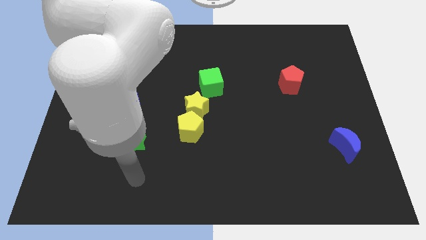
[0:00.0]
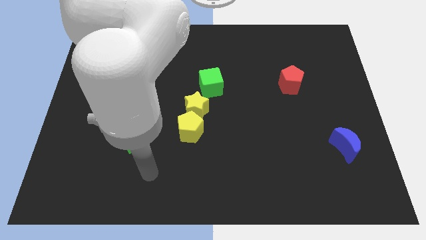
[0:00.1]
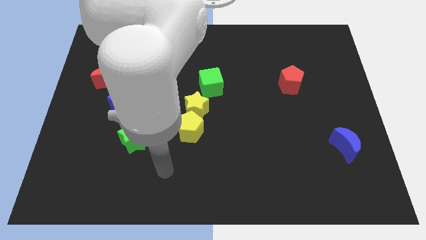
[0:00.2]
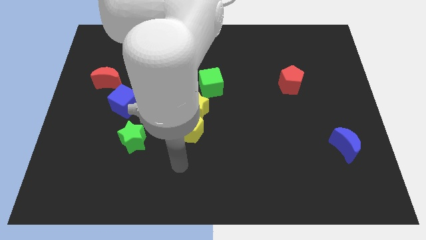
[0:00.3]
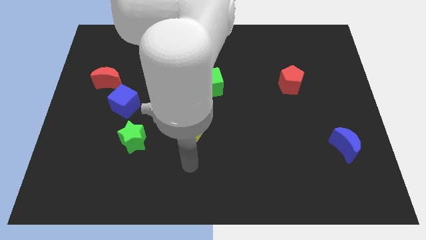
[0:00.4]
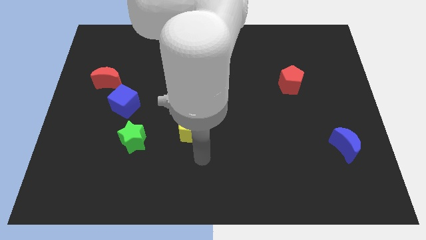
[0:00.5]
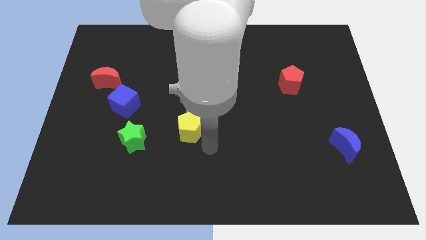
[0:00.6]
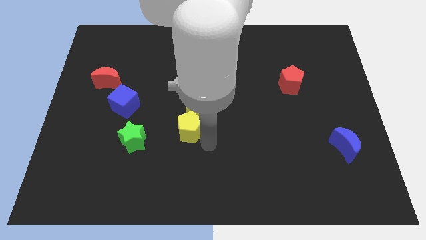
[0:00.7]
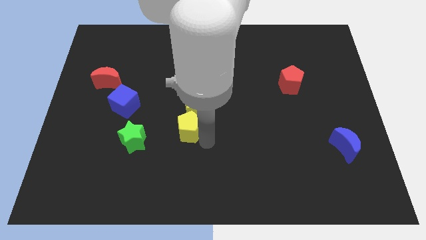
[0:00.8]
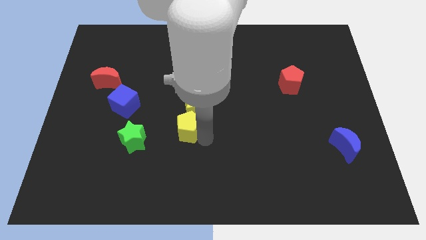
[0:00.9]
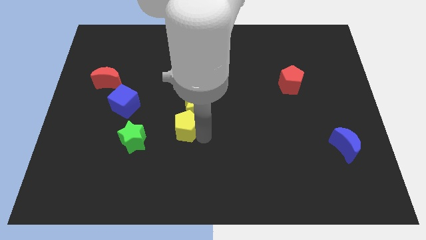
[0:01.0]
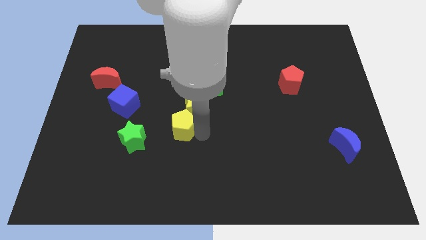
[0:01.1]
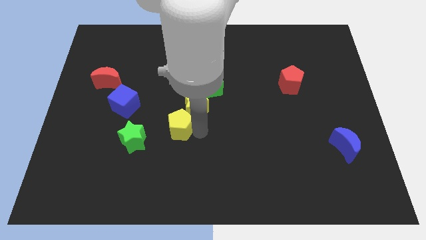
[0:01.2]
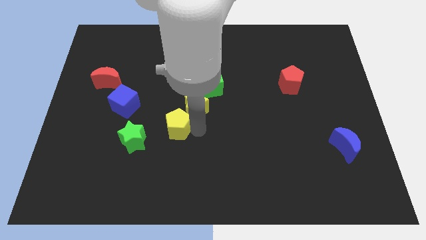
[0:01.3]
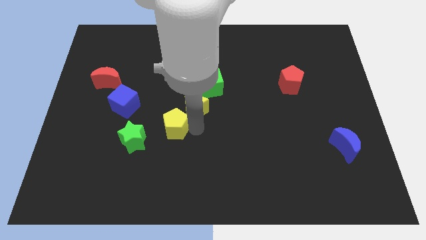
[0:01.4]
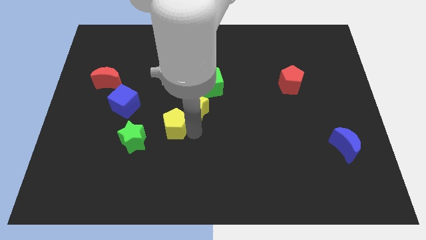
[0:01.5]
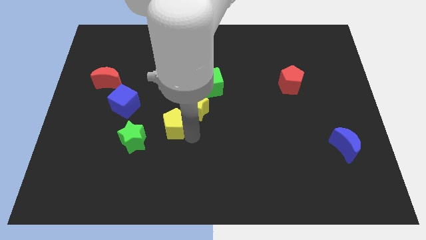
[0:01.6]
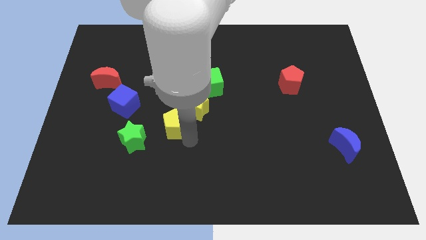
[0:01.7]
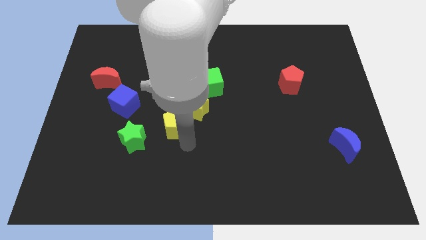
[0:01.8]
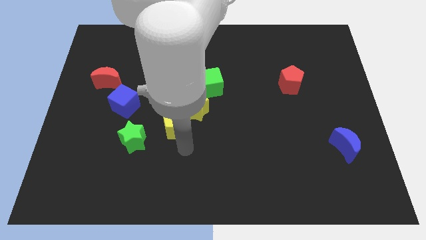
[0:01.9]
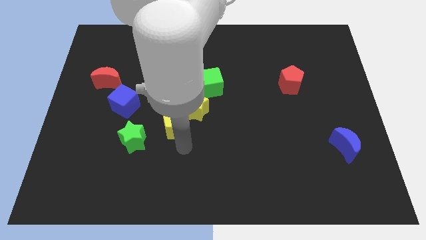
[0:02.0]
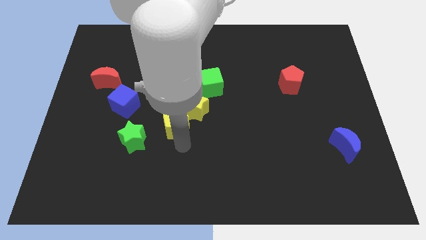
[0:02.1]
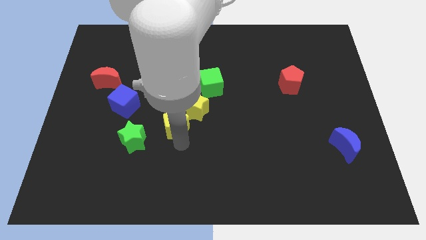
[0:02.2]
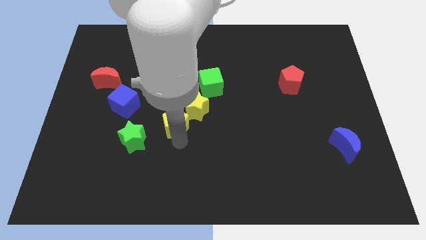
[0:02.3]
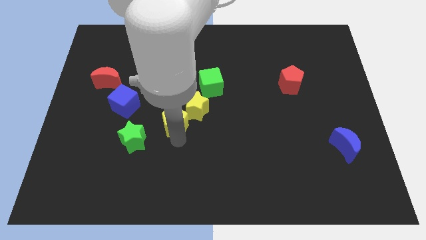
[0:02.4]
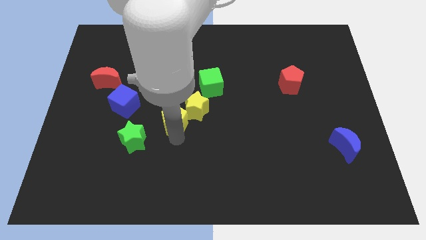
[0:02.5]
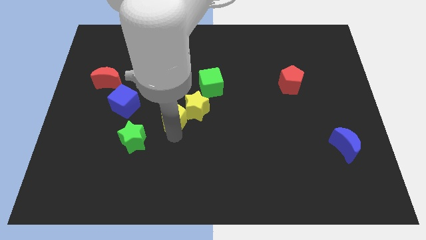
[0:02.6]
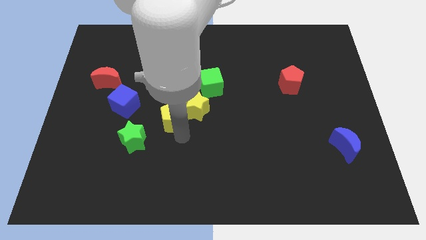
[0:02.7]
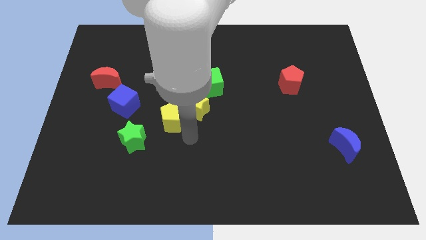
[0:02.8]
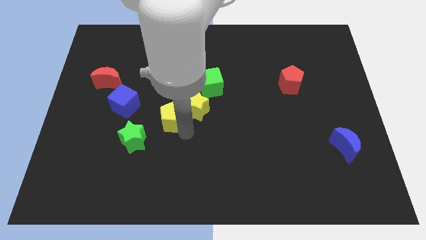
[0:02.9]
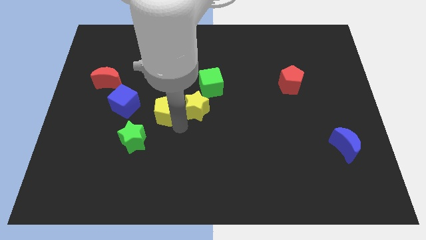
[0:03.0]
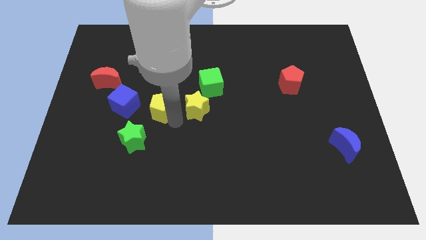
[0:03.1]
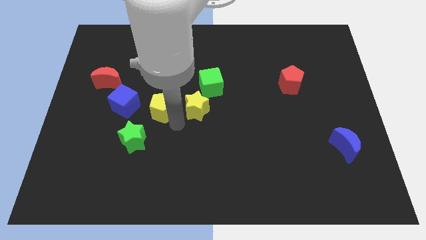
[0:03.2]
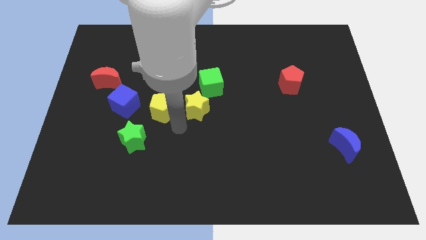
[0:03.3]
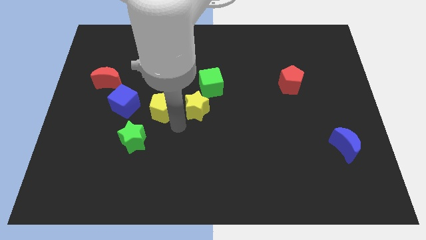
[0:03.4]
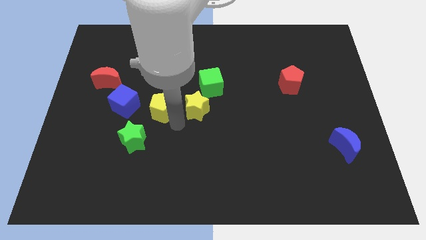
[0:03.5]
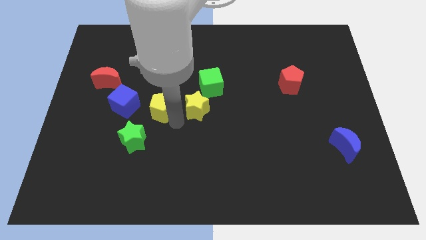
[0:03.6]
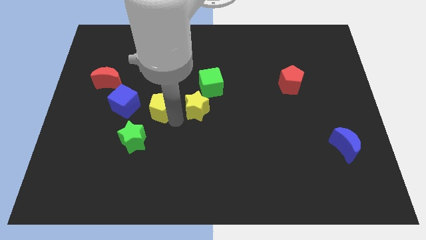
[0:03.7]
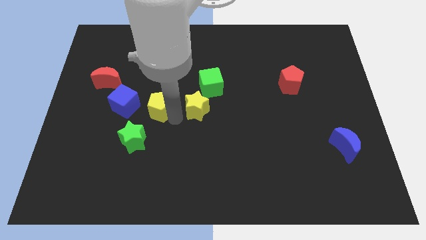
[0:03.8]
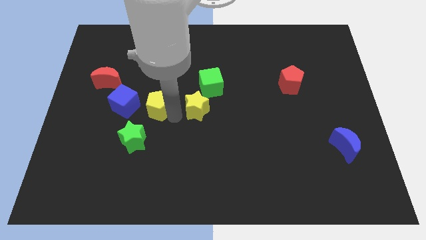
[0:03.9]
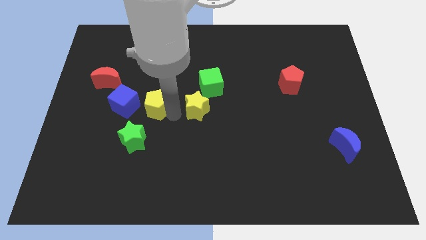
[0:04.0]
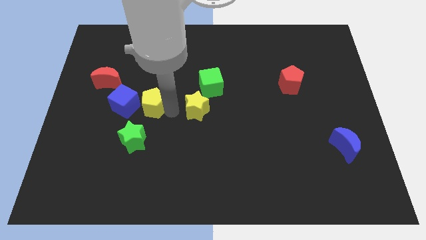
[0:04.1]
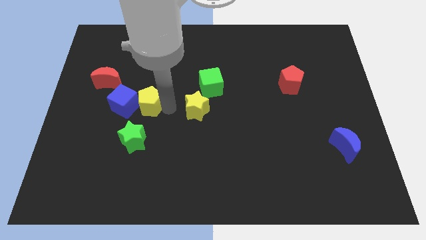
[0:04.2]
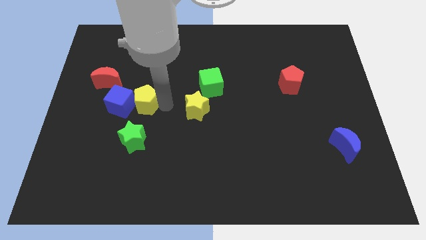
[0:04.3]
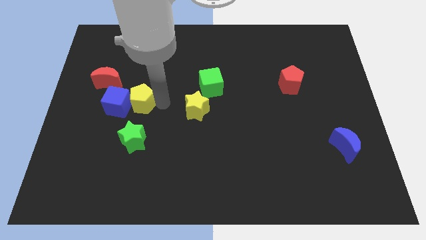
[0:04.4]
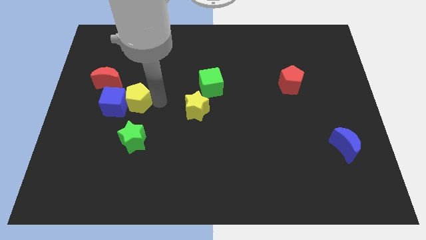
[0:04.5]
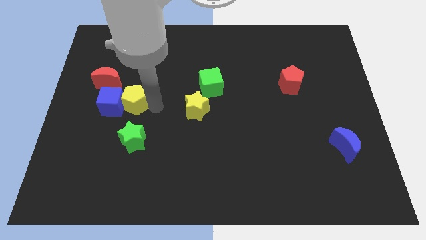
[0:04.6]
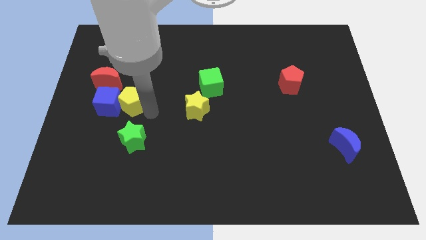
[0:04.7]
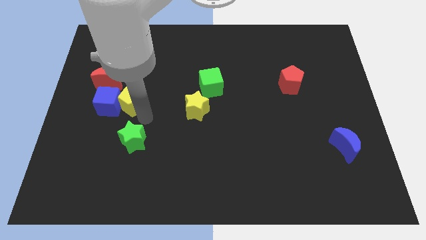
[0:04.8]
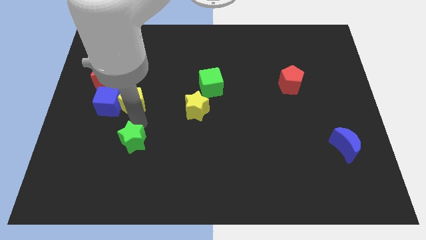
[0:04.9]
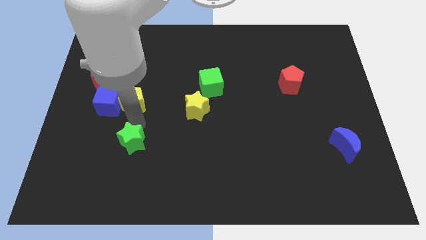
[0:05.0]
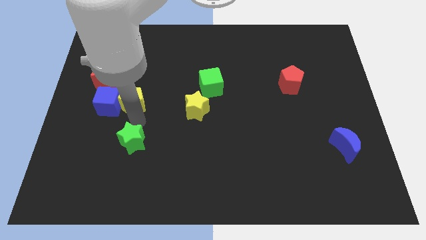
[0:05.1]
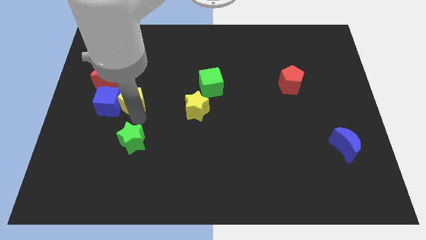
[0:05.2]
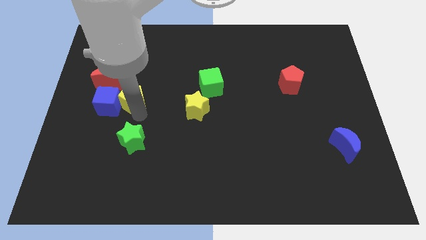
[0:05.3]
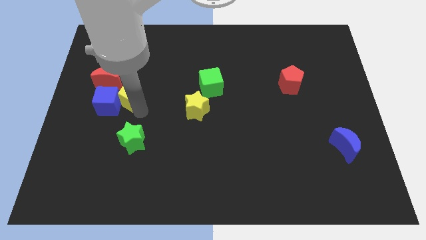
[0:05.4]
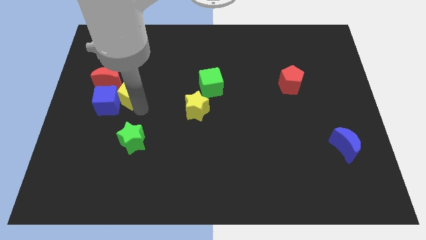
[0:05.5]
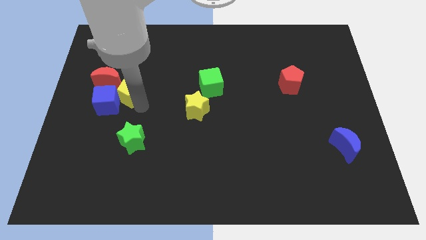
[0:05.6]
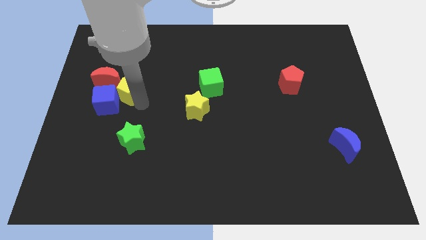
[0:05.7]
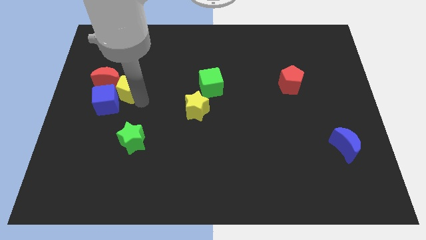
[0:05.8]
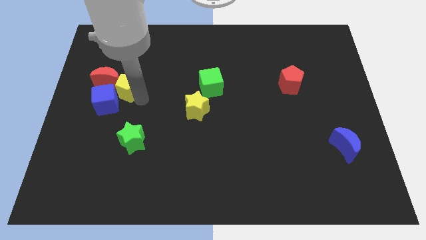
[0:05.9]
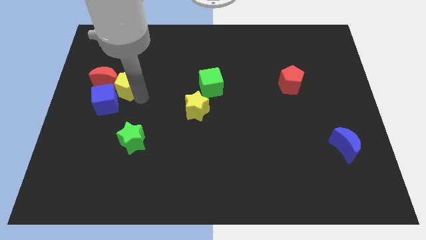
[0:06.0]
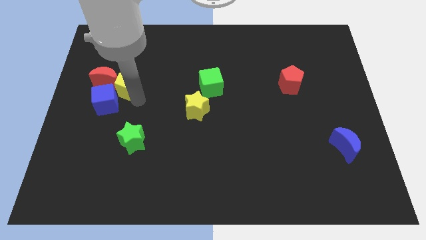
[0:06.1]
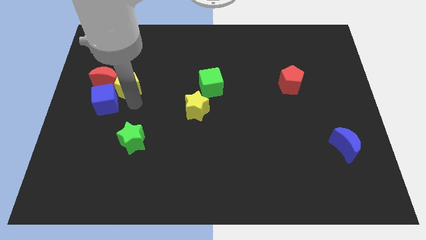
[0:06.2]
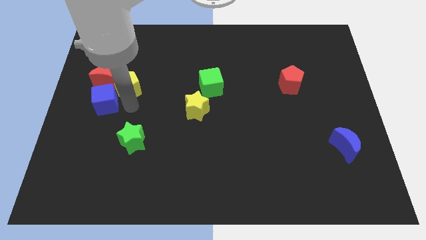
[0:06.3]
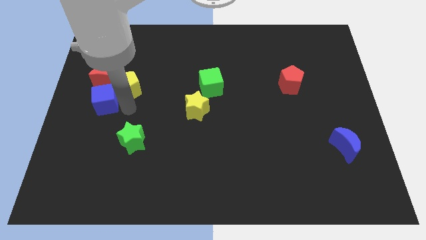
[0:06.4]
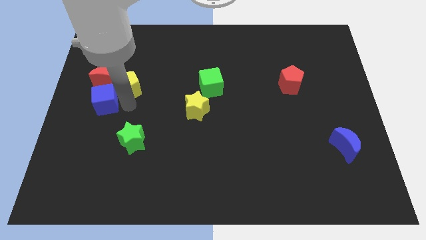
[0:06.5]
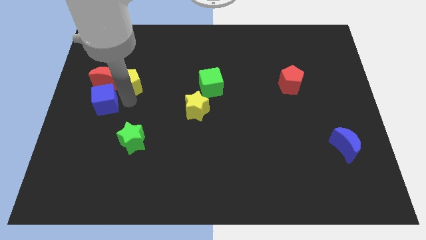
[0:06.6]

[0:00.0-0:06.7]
move the yellow pentagon upwards and left diagonally

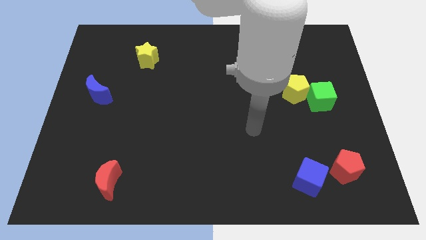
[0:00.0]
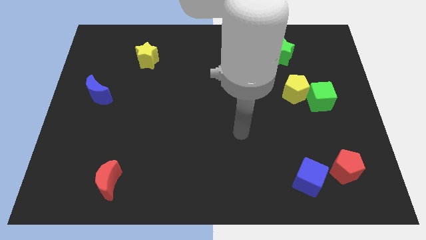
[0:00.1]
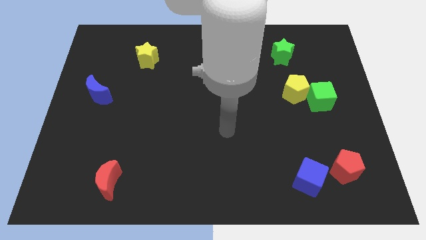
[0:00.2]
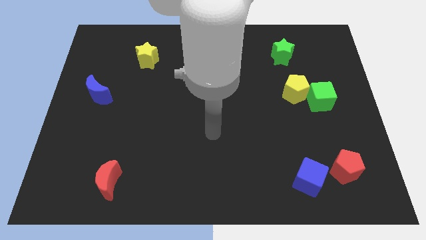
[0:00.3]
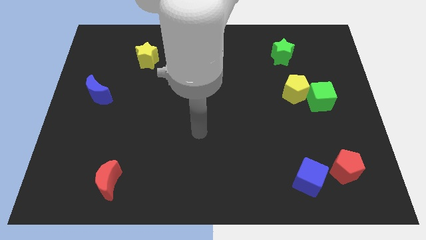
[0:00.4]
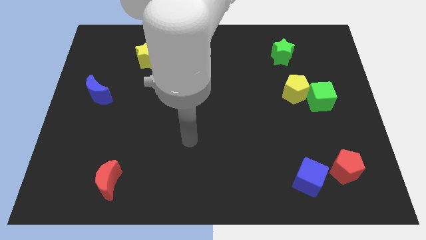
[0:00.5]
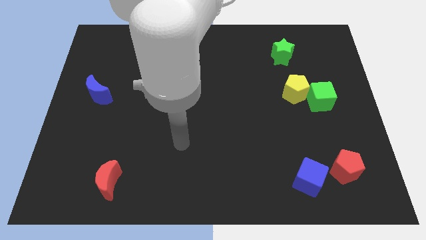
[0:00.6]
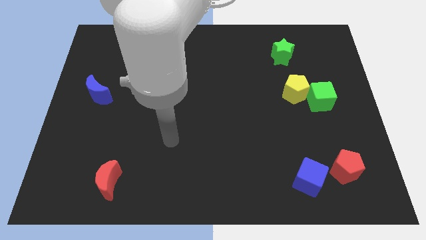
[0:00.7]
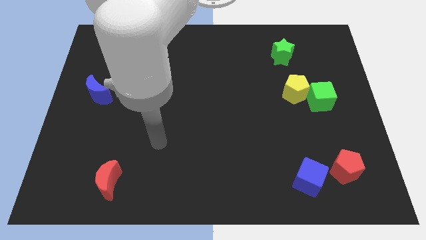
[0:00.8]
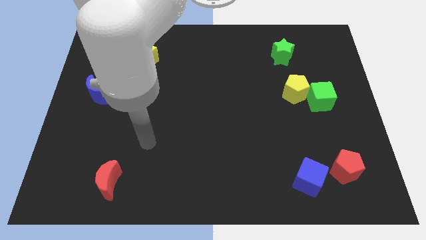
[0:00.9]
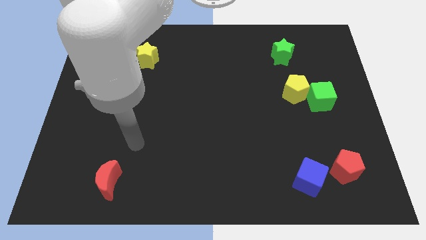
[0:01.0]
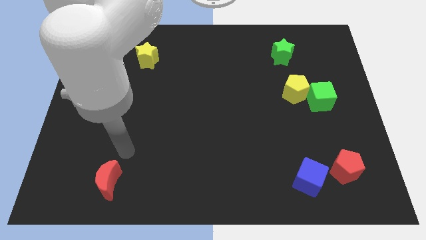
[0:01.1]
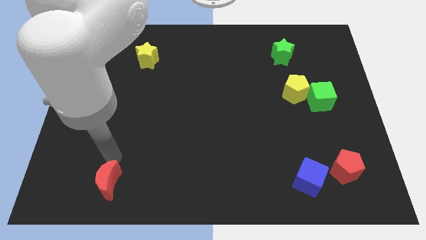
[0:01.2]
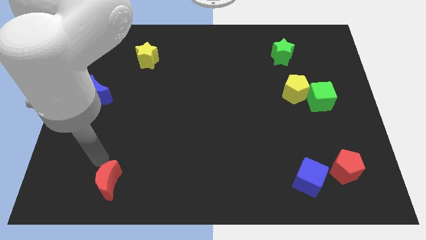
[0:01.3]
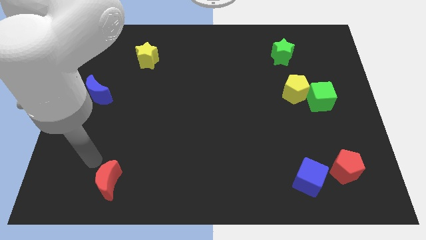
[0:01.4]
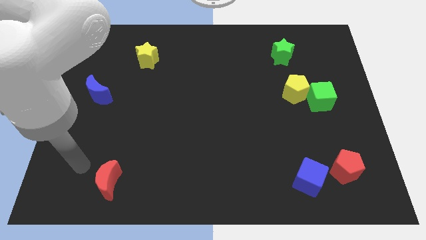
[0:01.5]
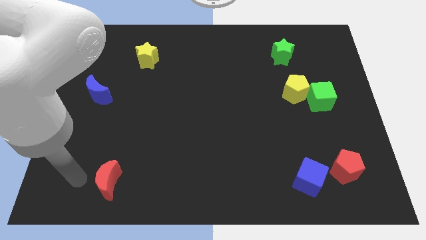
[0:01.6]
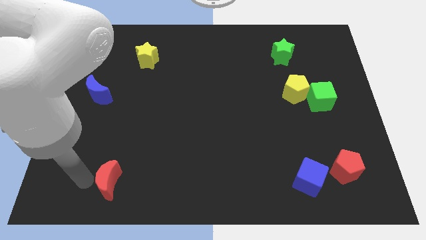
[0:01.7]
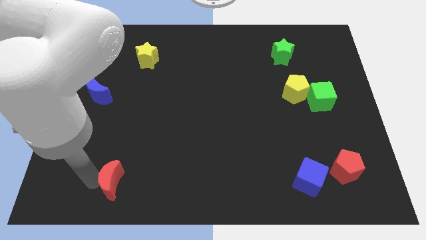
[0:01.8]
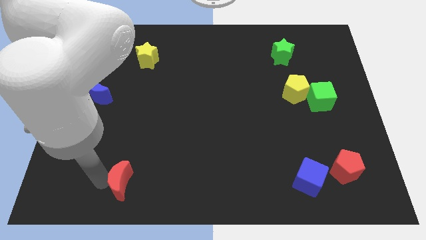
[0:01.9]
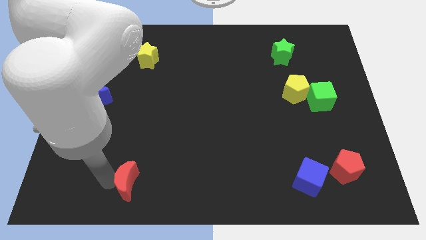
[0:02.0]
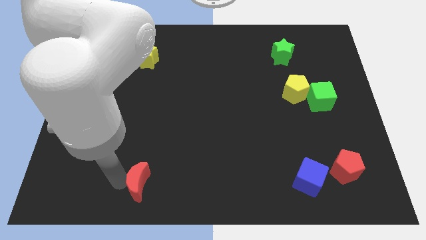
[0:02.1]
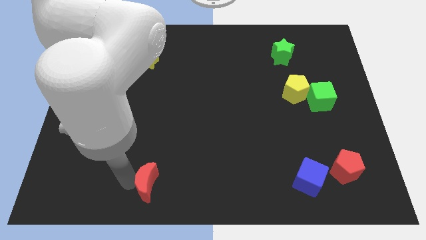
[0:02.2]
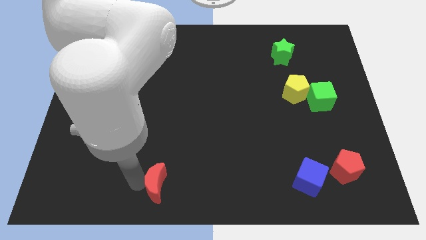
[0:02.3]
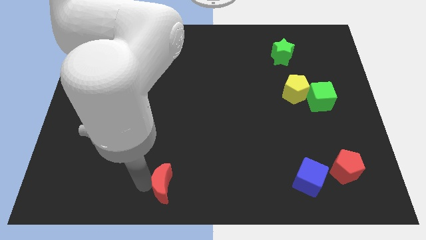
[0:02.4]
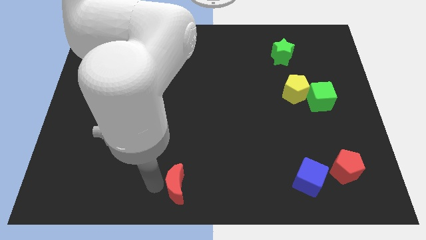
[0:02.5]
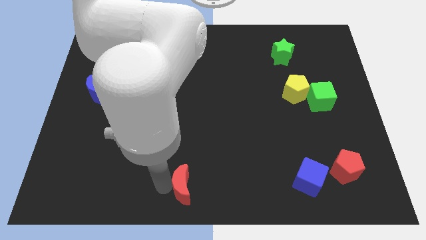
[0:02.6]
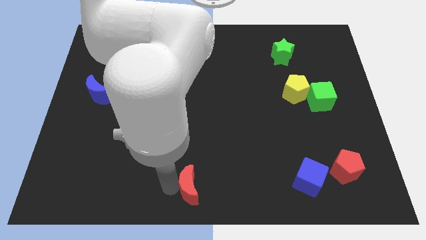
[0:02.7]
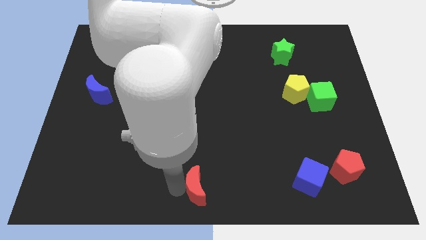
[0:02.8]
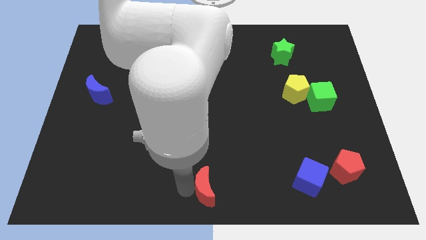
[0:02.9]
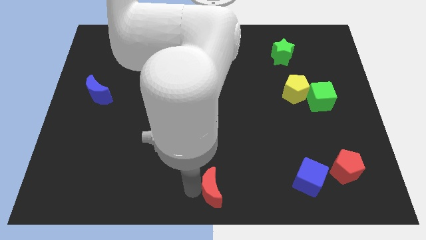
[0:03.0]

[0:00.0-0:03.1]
push the red moon to the right
